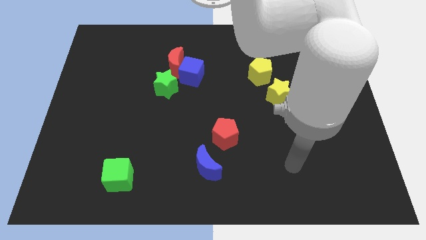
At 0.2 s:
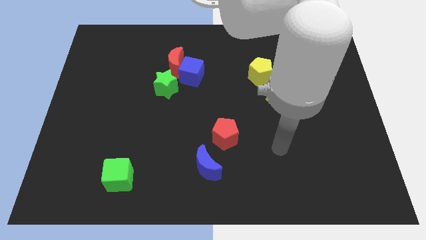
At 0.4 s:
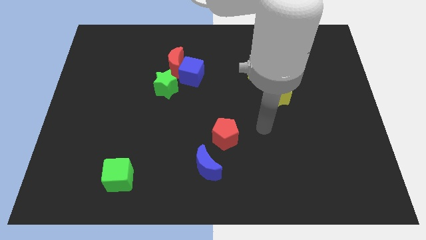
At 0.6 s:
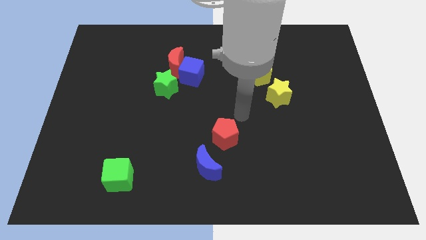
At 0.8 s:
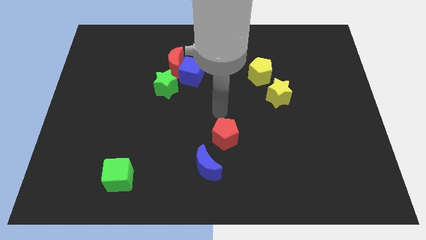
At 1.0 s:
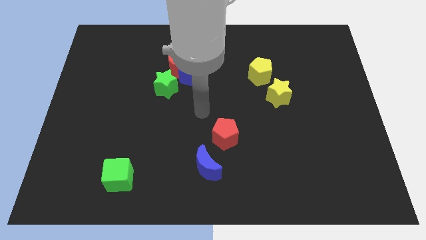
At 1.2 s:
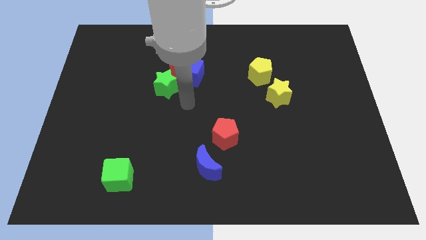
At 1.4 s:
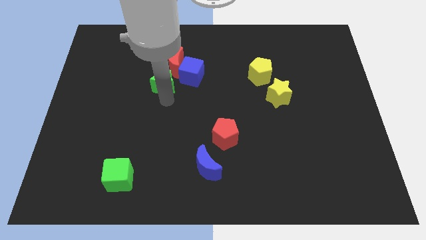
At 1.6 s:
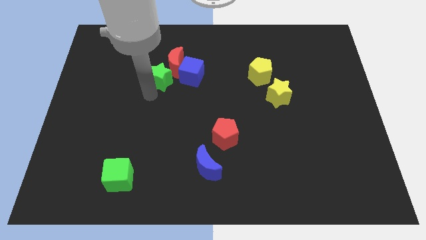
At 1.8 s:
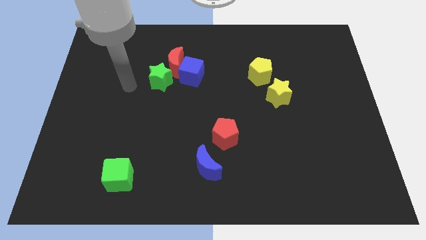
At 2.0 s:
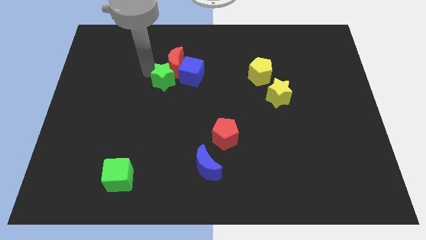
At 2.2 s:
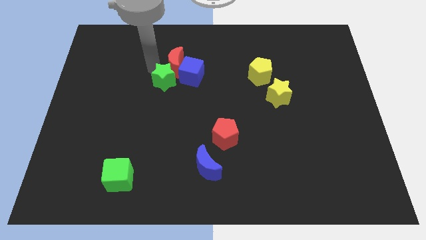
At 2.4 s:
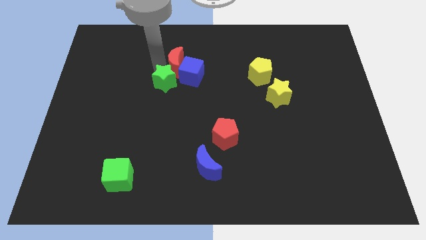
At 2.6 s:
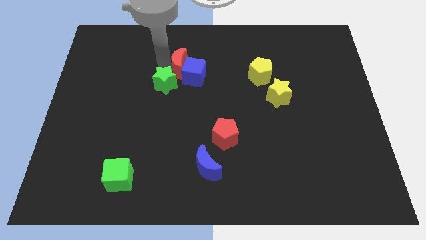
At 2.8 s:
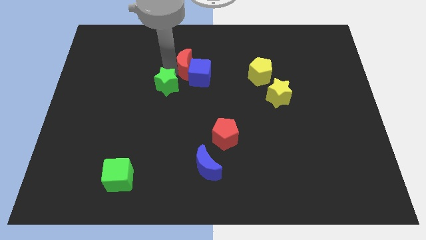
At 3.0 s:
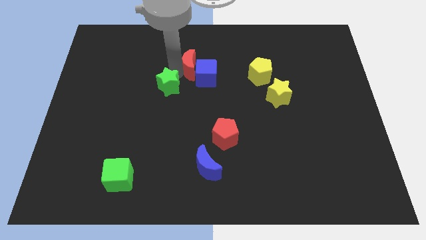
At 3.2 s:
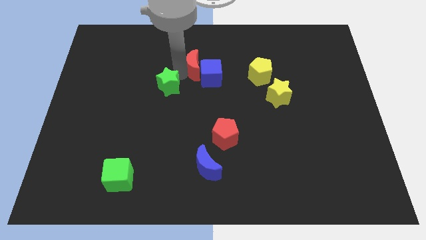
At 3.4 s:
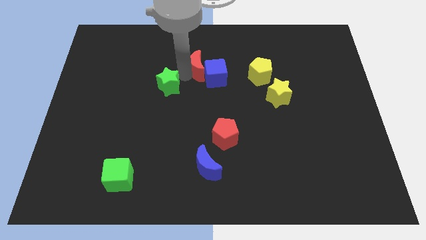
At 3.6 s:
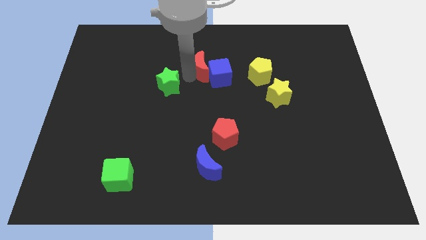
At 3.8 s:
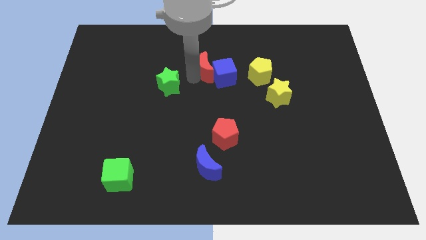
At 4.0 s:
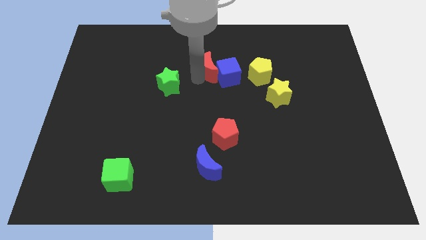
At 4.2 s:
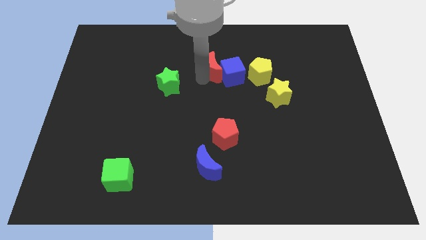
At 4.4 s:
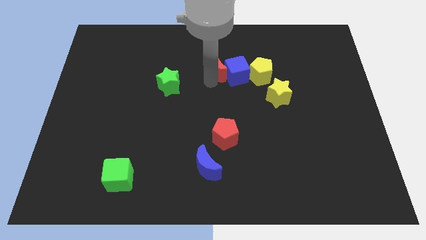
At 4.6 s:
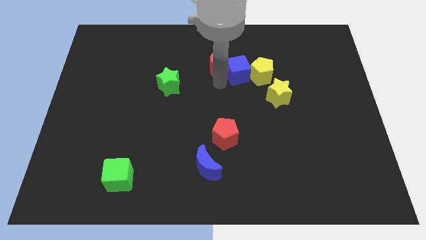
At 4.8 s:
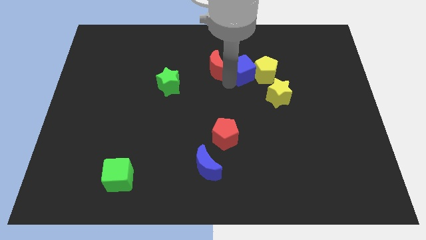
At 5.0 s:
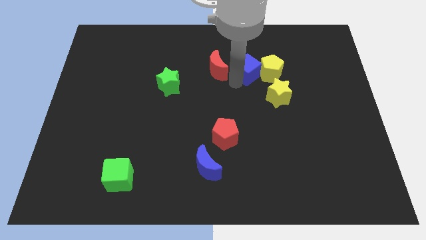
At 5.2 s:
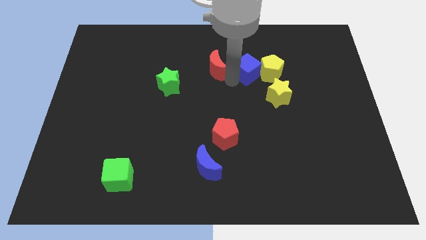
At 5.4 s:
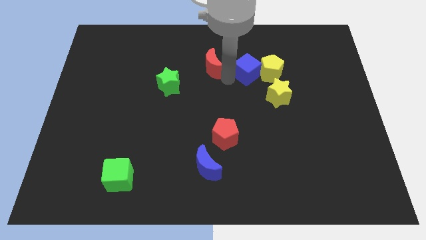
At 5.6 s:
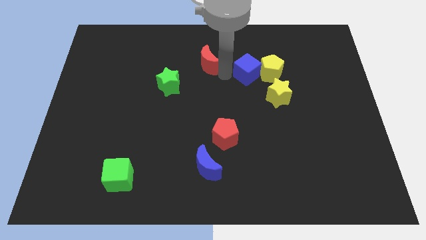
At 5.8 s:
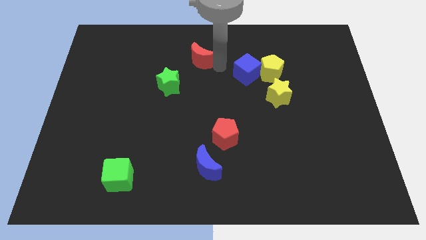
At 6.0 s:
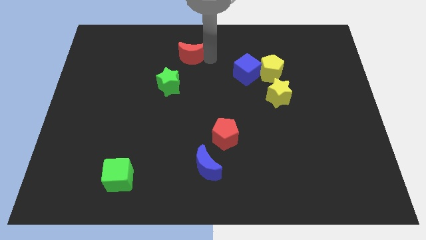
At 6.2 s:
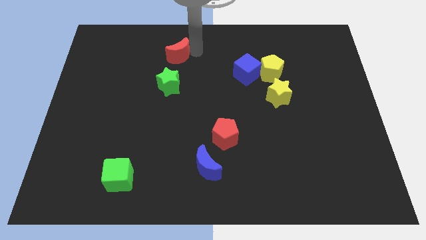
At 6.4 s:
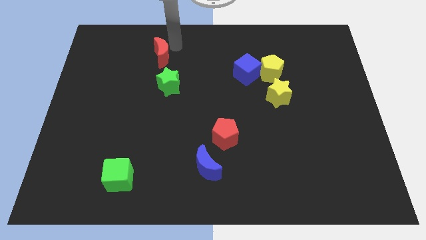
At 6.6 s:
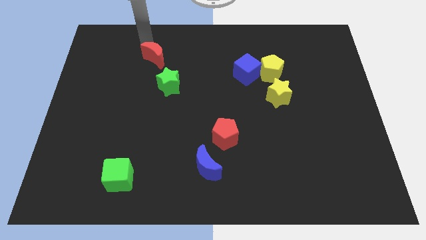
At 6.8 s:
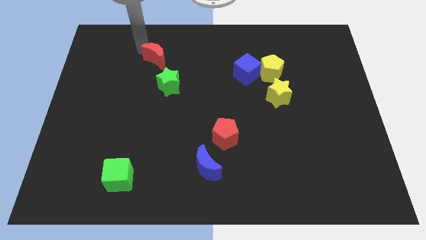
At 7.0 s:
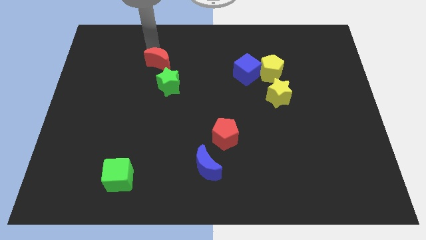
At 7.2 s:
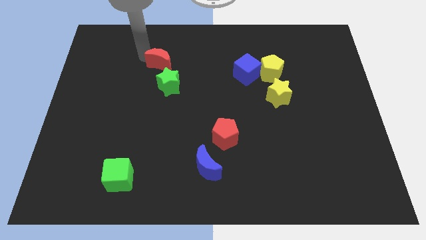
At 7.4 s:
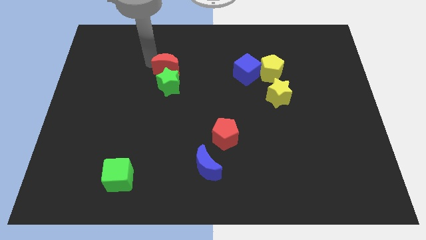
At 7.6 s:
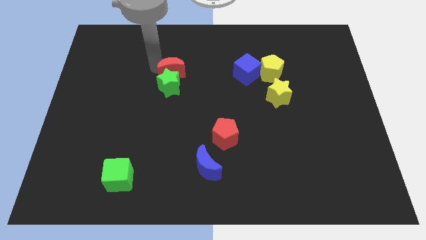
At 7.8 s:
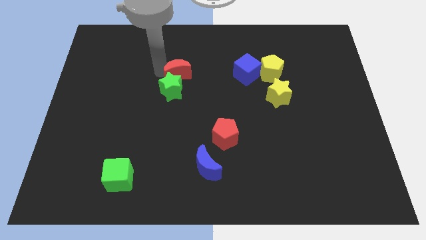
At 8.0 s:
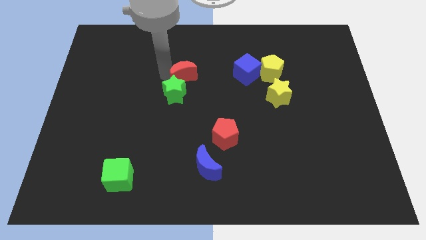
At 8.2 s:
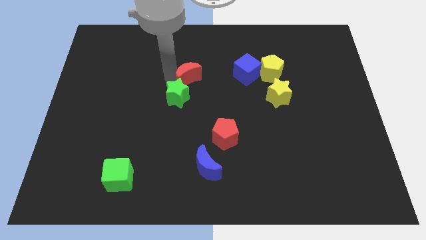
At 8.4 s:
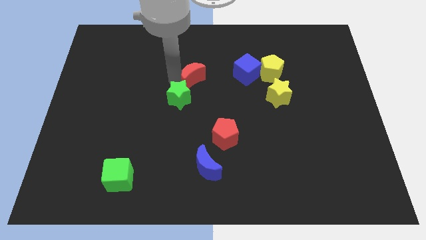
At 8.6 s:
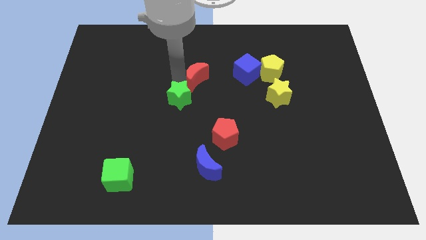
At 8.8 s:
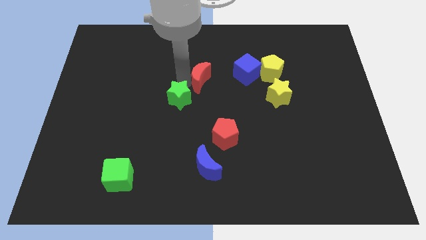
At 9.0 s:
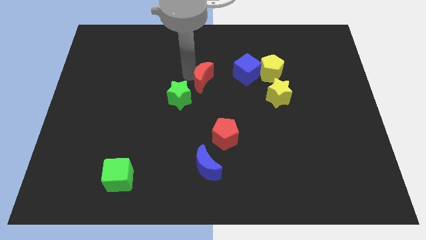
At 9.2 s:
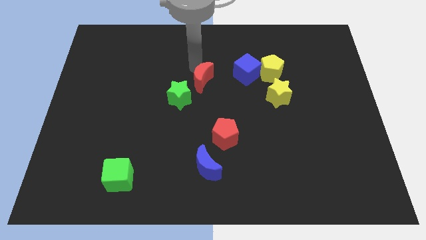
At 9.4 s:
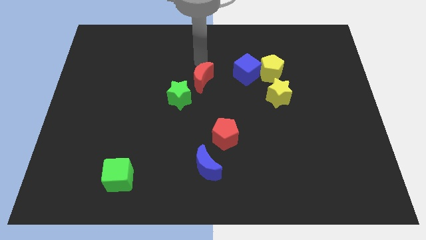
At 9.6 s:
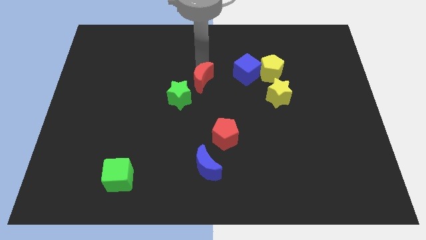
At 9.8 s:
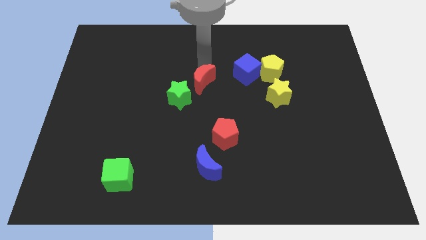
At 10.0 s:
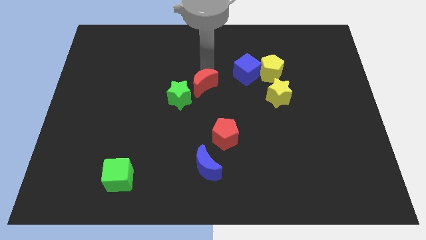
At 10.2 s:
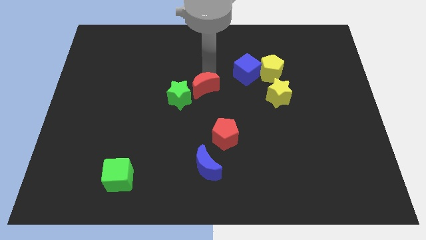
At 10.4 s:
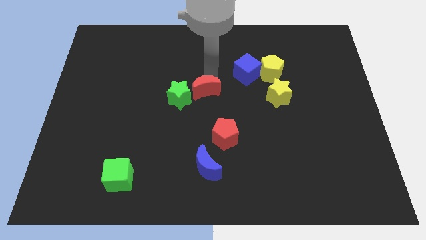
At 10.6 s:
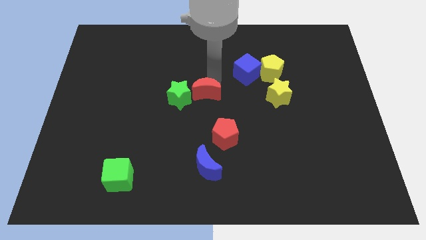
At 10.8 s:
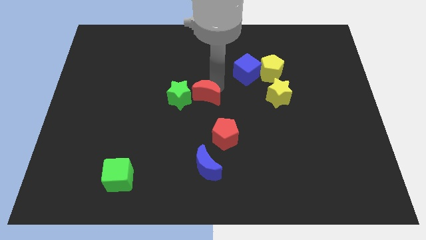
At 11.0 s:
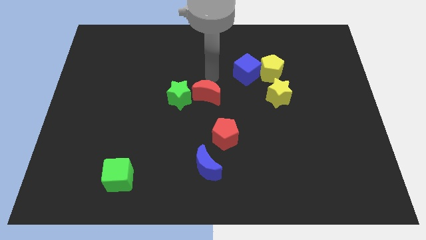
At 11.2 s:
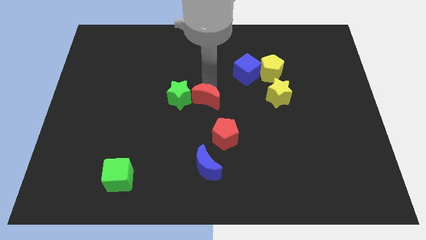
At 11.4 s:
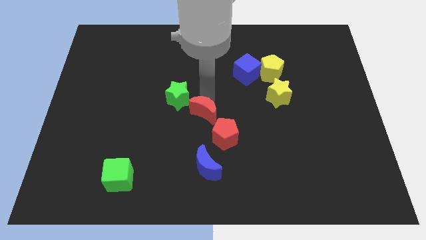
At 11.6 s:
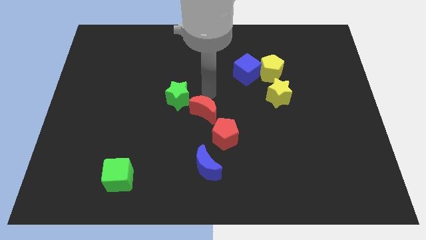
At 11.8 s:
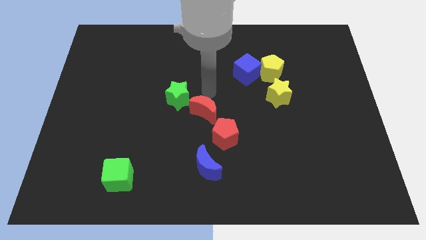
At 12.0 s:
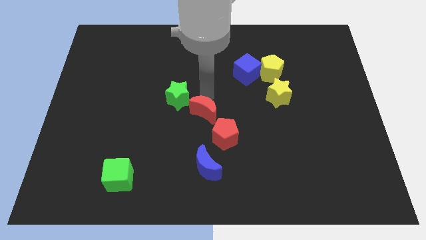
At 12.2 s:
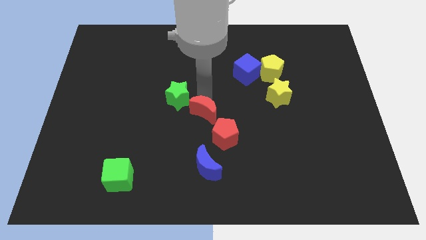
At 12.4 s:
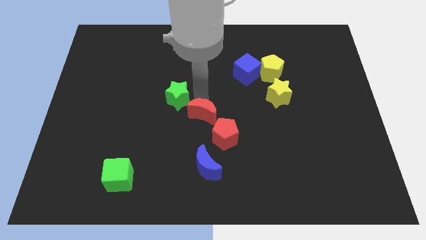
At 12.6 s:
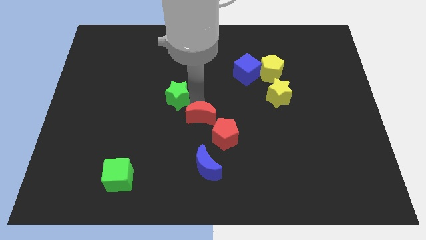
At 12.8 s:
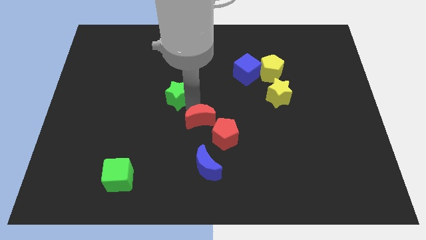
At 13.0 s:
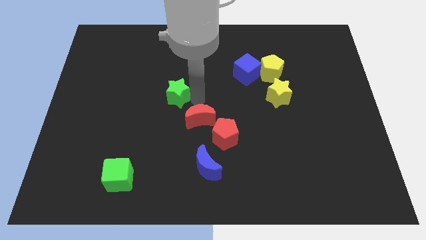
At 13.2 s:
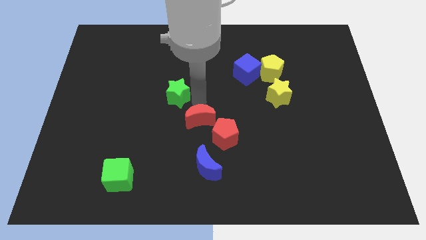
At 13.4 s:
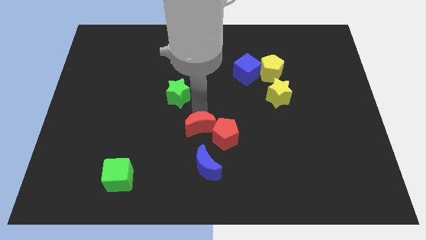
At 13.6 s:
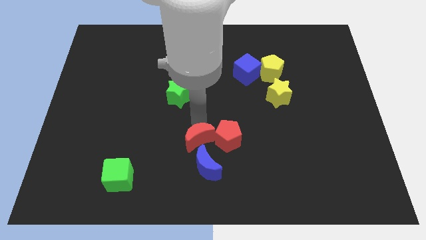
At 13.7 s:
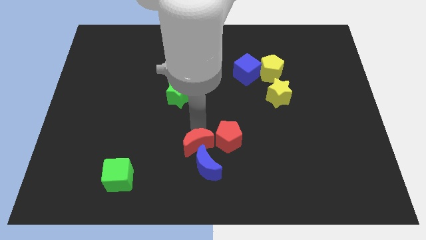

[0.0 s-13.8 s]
move the red moon close to the blue moon

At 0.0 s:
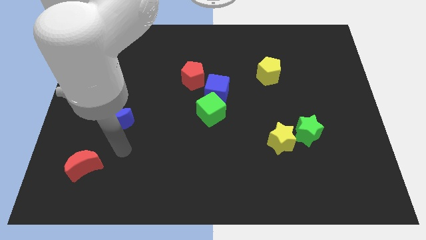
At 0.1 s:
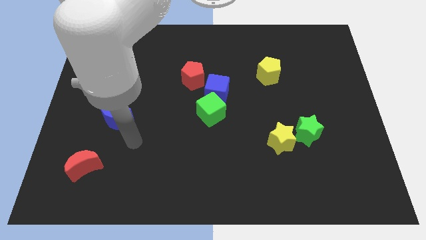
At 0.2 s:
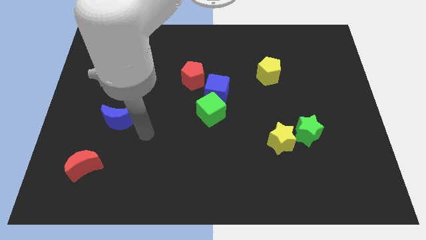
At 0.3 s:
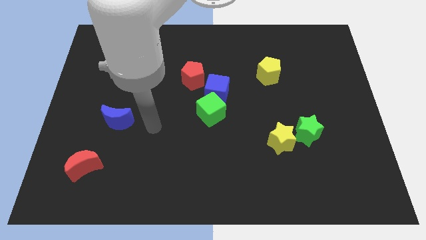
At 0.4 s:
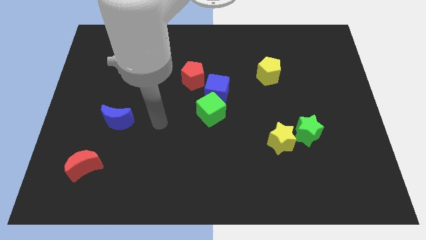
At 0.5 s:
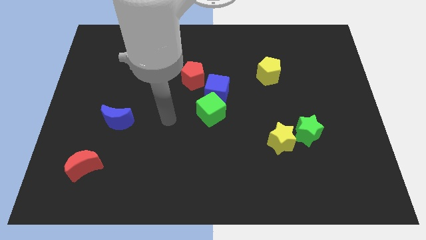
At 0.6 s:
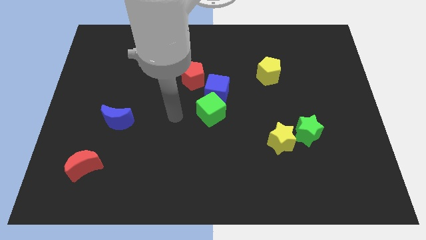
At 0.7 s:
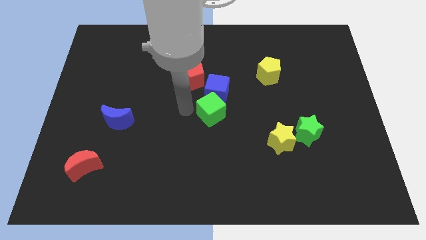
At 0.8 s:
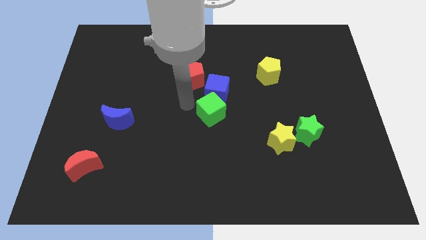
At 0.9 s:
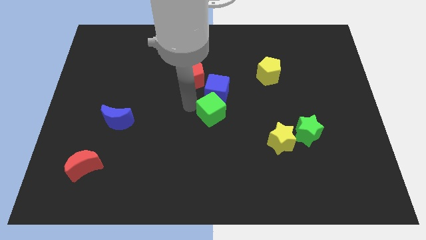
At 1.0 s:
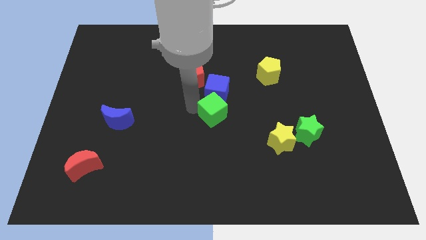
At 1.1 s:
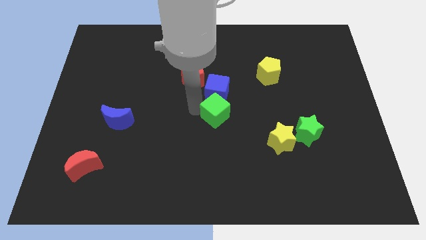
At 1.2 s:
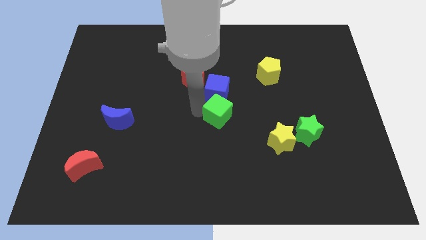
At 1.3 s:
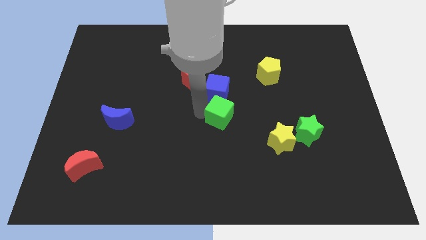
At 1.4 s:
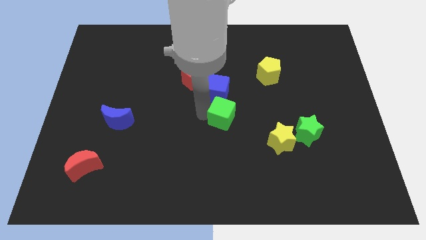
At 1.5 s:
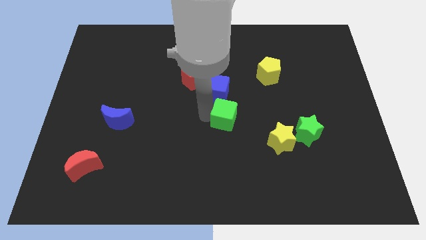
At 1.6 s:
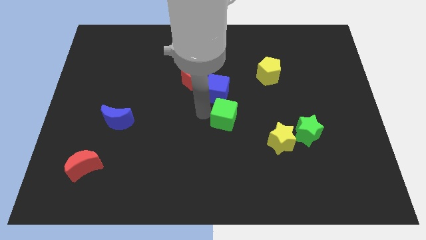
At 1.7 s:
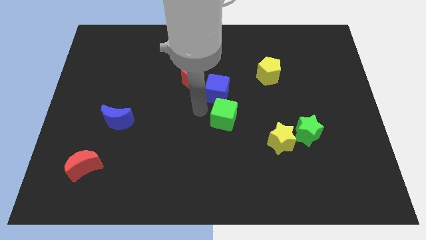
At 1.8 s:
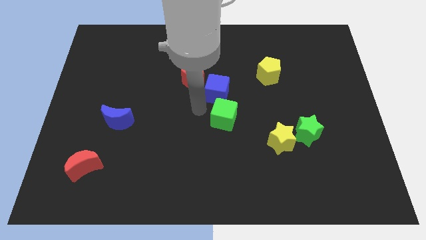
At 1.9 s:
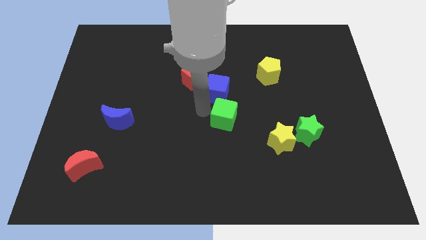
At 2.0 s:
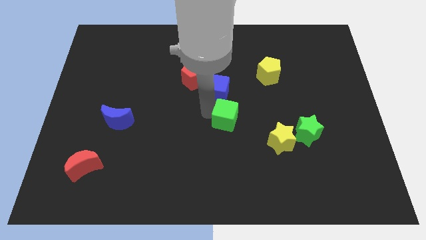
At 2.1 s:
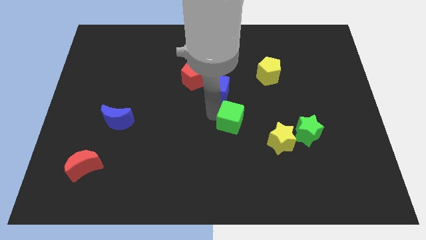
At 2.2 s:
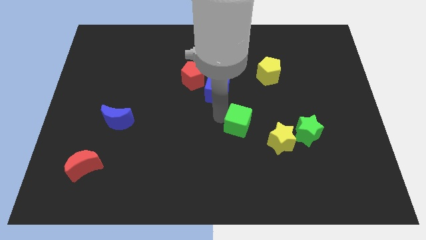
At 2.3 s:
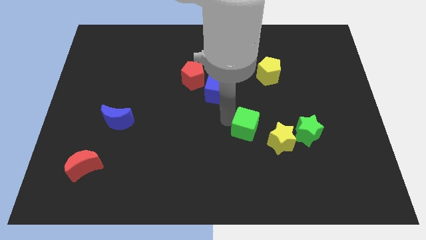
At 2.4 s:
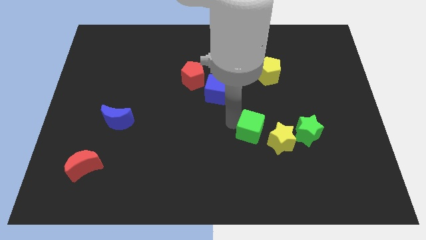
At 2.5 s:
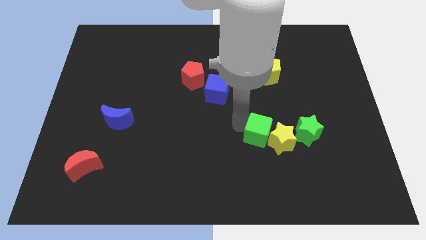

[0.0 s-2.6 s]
slide the green cube next to the yellow star
